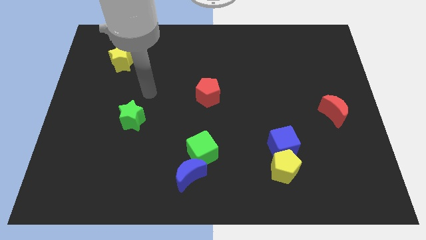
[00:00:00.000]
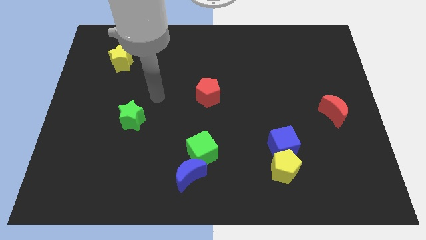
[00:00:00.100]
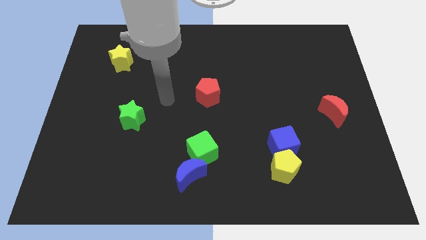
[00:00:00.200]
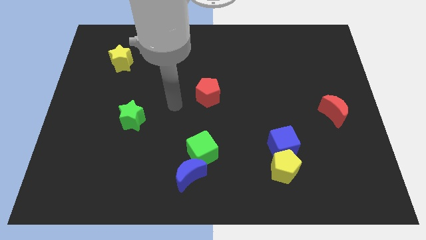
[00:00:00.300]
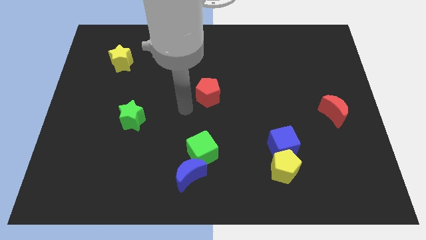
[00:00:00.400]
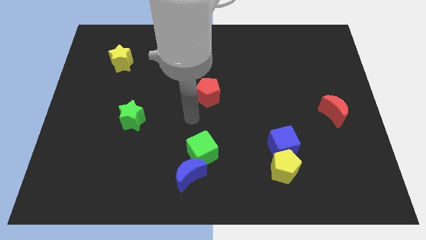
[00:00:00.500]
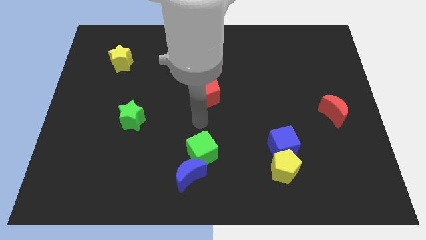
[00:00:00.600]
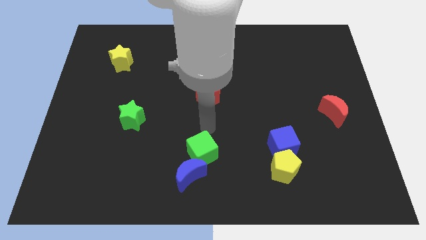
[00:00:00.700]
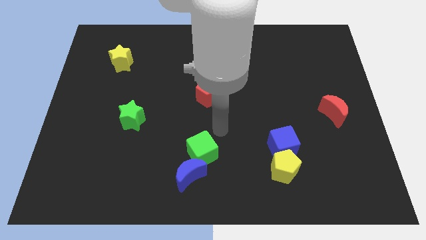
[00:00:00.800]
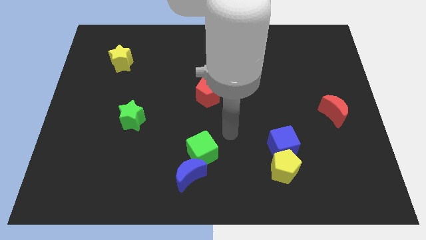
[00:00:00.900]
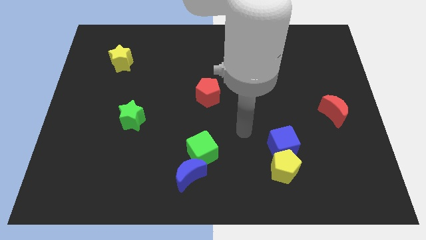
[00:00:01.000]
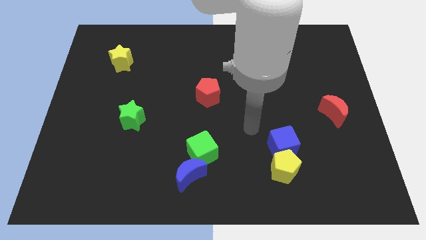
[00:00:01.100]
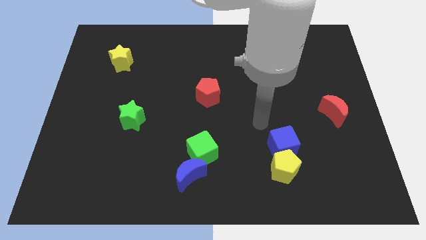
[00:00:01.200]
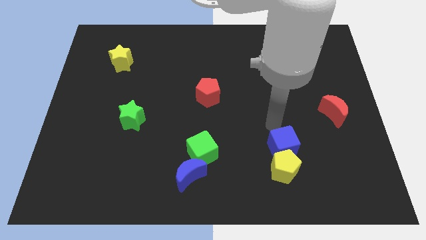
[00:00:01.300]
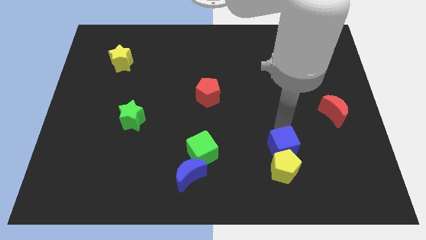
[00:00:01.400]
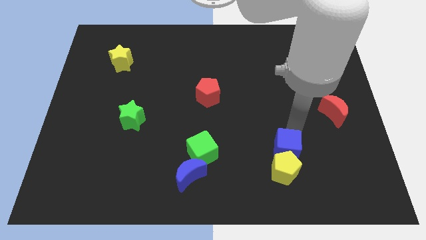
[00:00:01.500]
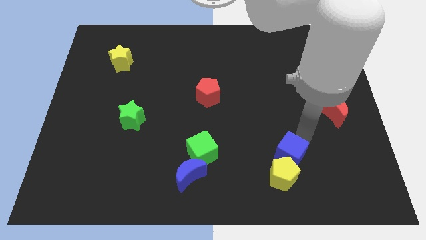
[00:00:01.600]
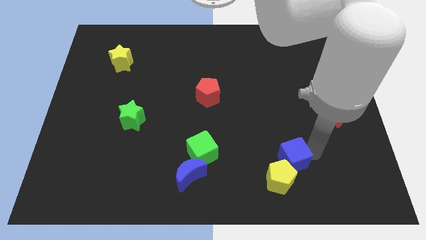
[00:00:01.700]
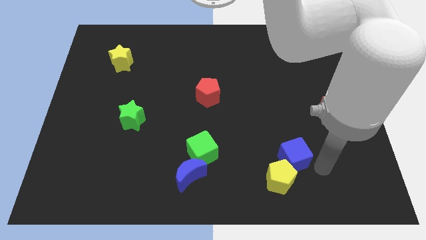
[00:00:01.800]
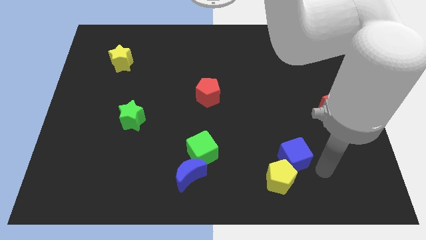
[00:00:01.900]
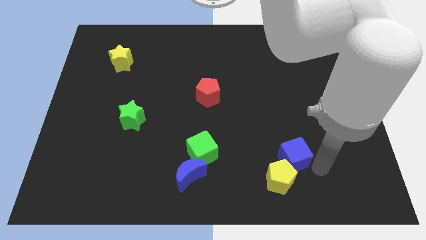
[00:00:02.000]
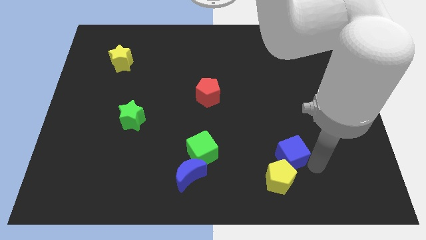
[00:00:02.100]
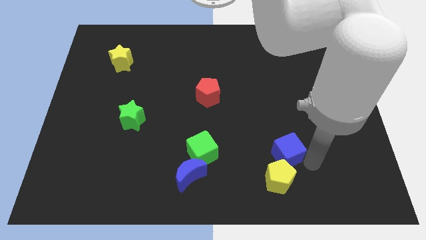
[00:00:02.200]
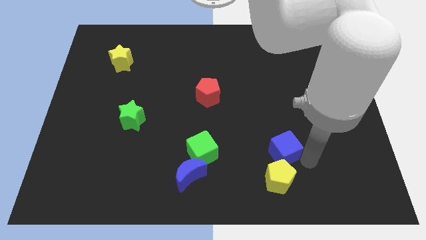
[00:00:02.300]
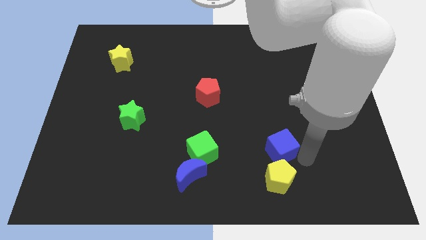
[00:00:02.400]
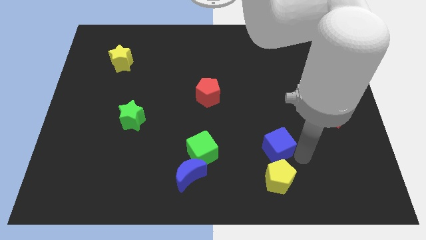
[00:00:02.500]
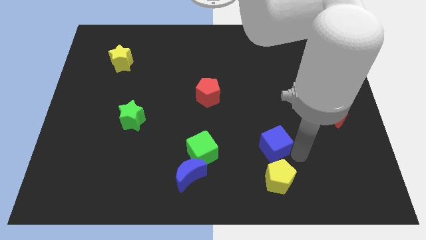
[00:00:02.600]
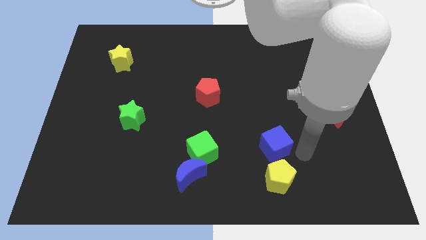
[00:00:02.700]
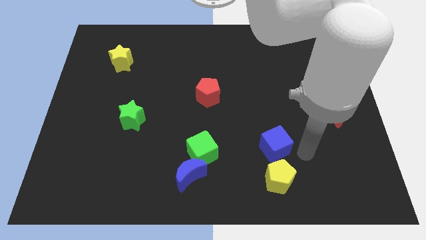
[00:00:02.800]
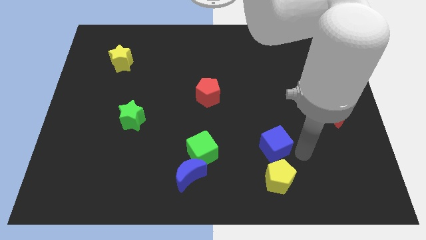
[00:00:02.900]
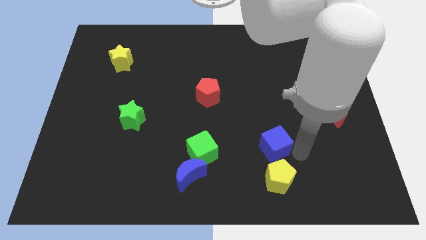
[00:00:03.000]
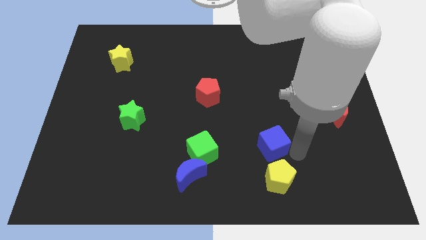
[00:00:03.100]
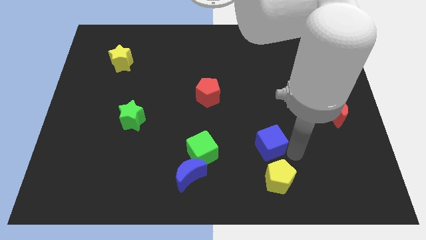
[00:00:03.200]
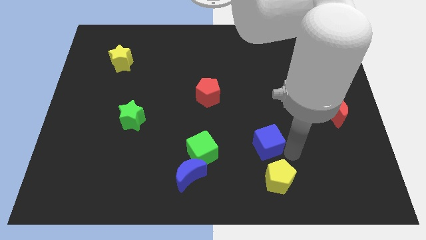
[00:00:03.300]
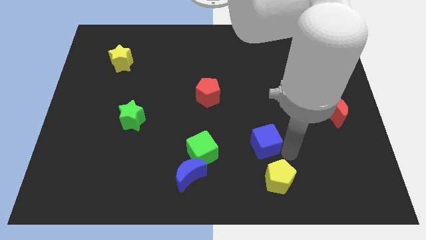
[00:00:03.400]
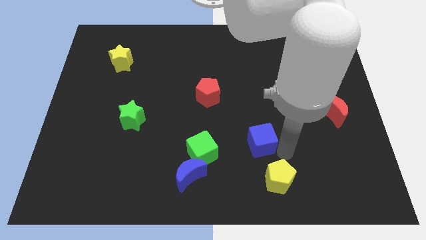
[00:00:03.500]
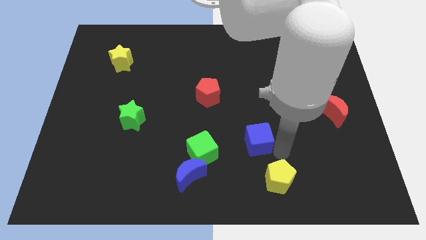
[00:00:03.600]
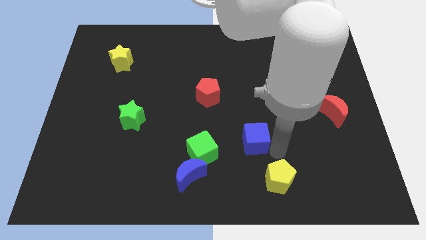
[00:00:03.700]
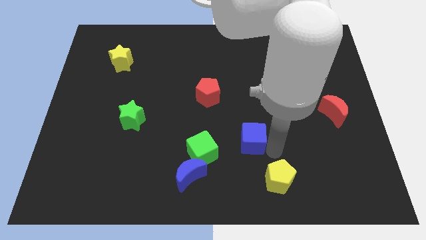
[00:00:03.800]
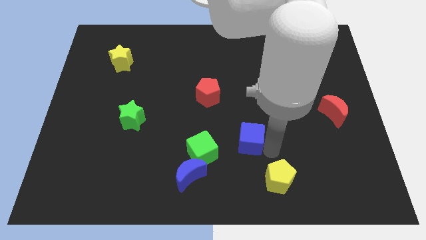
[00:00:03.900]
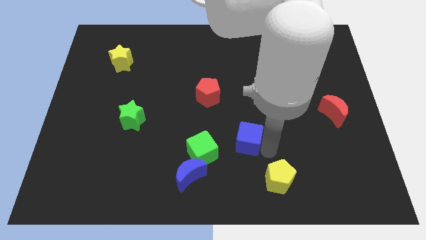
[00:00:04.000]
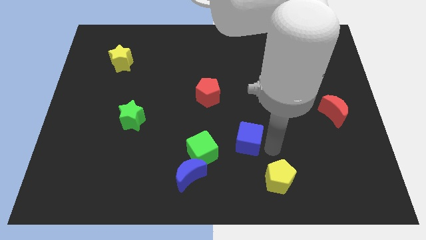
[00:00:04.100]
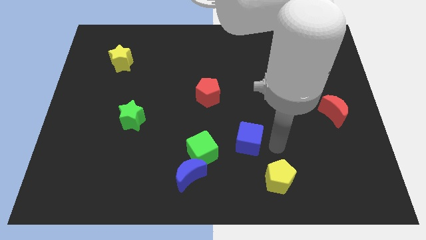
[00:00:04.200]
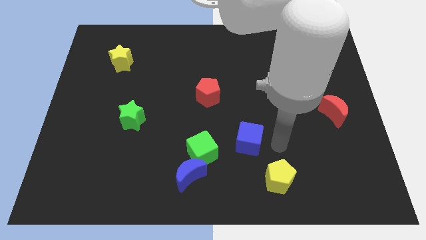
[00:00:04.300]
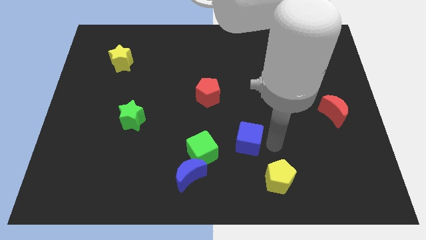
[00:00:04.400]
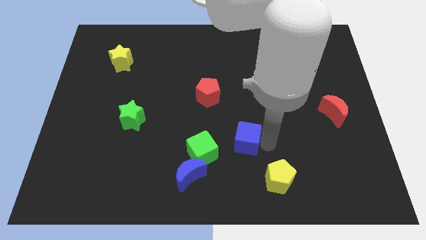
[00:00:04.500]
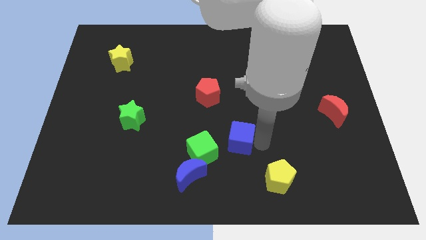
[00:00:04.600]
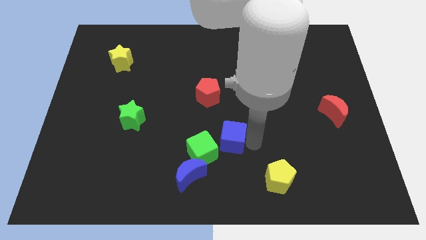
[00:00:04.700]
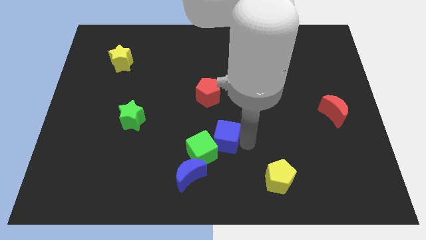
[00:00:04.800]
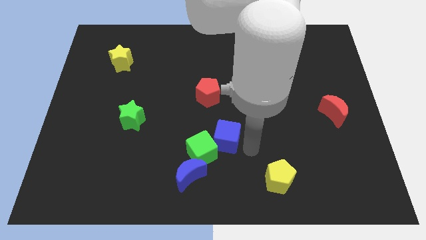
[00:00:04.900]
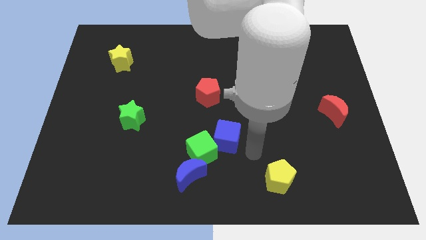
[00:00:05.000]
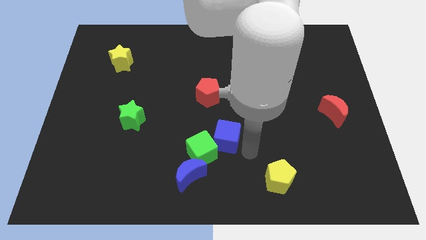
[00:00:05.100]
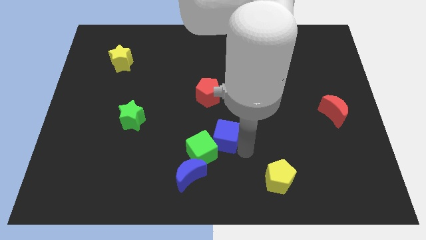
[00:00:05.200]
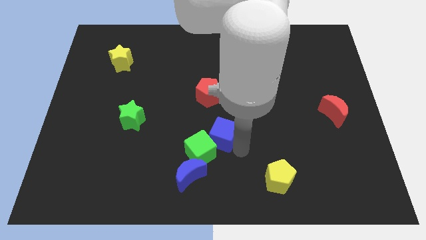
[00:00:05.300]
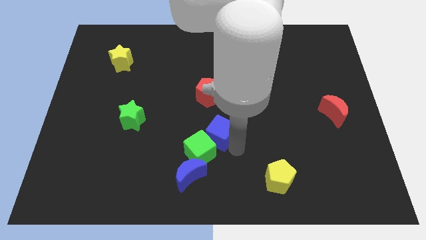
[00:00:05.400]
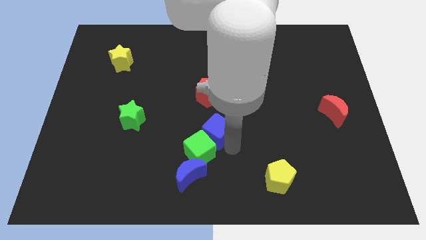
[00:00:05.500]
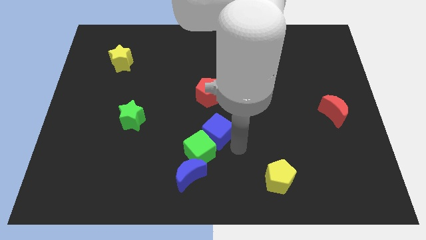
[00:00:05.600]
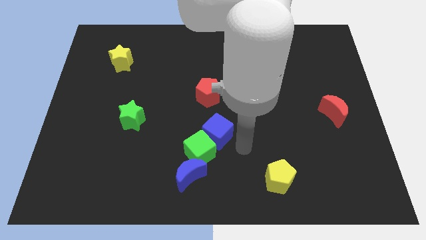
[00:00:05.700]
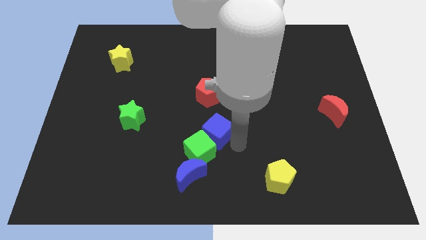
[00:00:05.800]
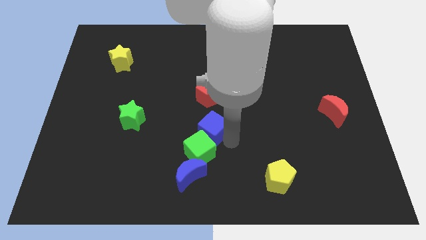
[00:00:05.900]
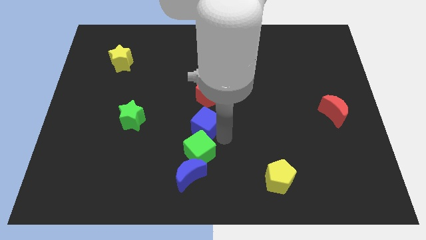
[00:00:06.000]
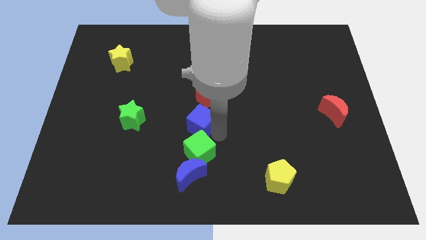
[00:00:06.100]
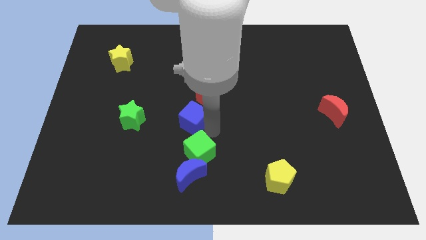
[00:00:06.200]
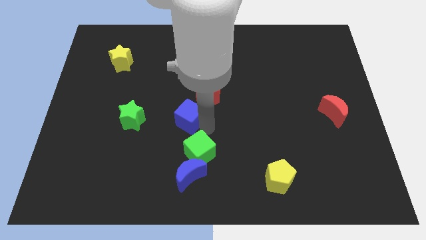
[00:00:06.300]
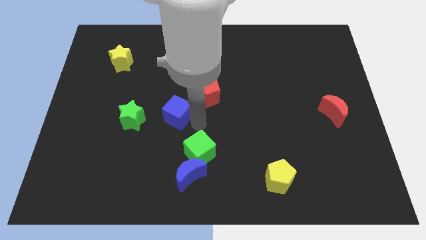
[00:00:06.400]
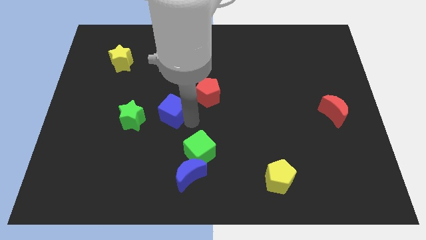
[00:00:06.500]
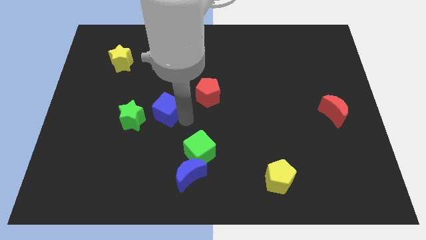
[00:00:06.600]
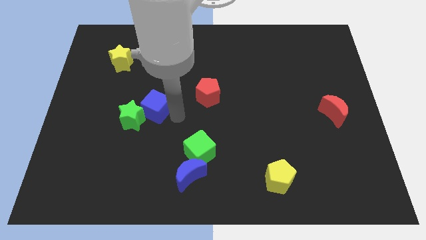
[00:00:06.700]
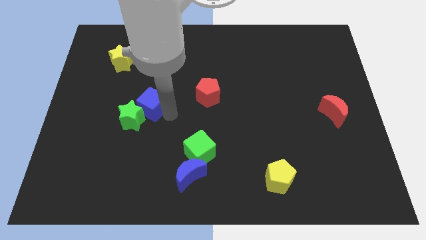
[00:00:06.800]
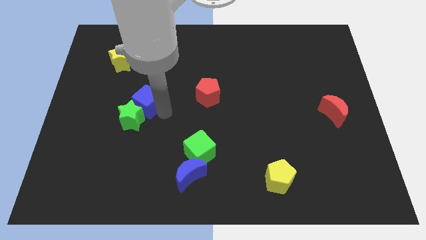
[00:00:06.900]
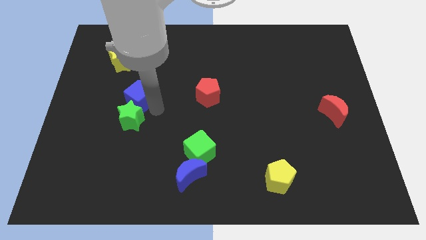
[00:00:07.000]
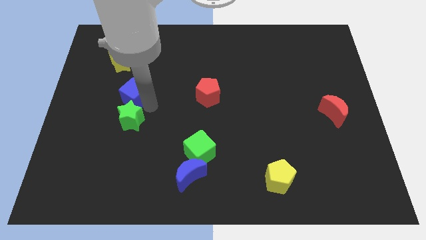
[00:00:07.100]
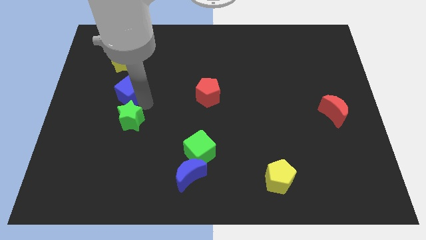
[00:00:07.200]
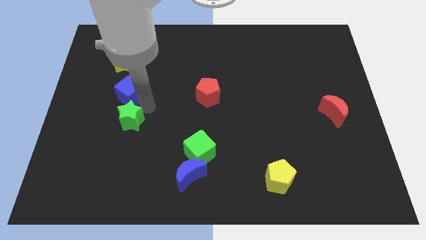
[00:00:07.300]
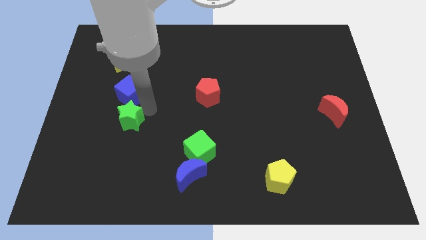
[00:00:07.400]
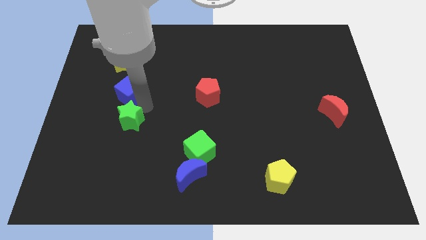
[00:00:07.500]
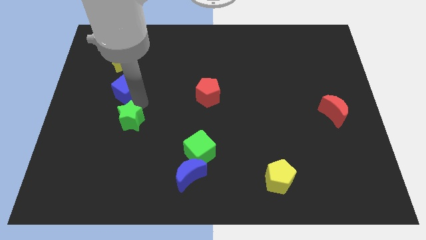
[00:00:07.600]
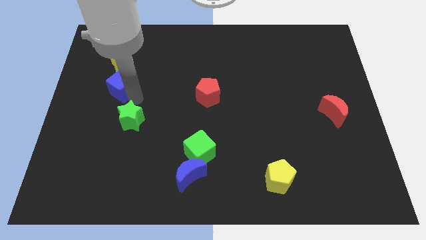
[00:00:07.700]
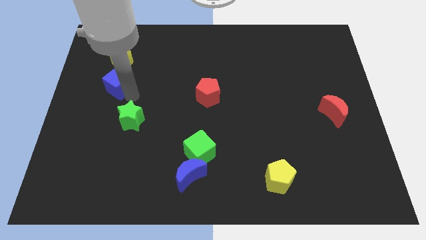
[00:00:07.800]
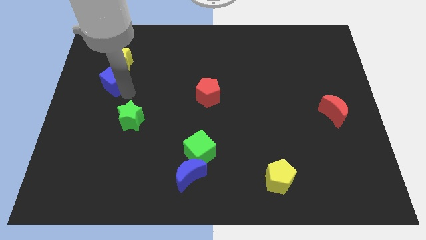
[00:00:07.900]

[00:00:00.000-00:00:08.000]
push the blue cube to the bottom left of the yellow star
